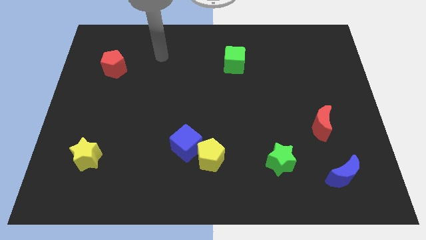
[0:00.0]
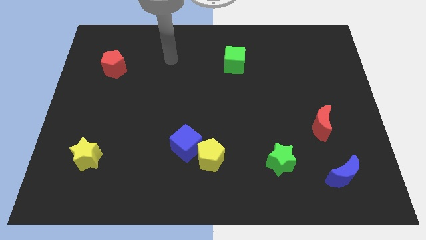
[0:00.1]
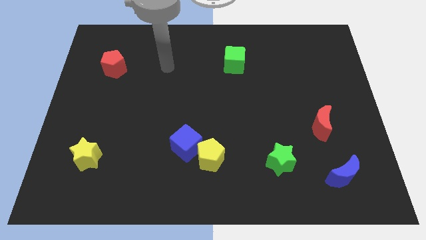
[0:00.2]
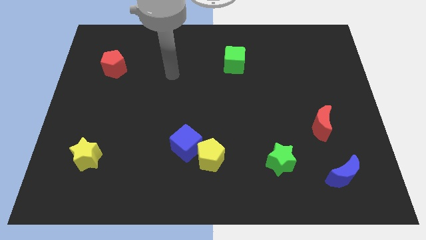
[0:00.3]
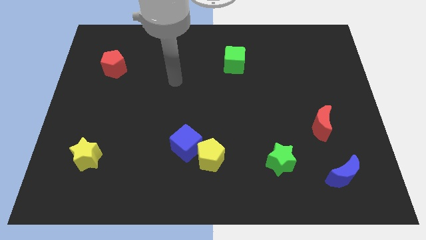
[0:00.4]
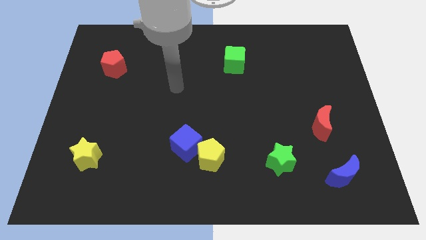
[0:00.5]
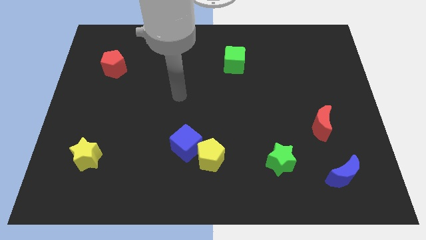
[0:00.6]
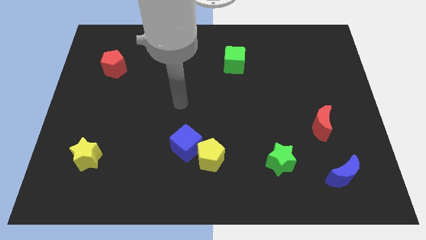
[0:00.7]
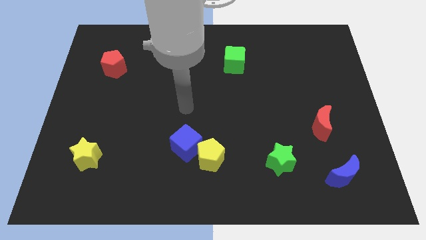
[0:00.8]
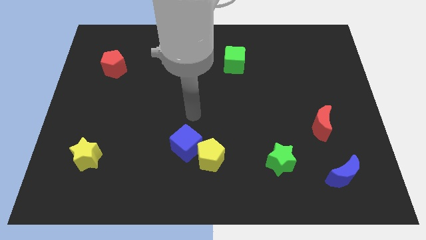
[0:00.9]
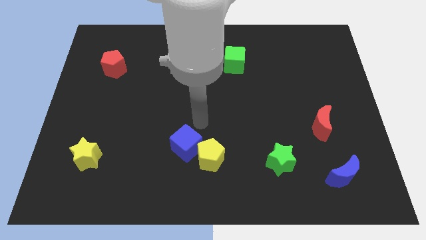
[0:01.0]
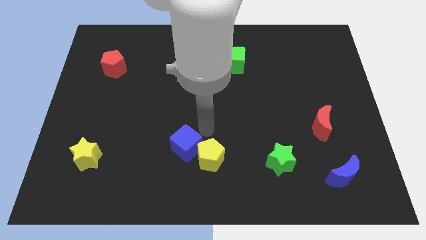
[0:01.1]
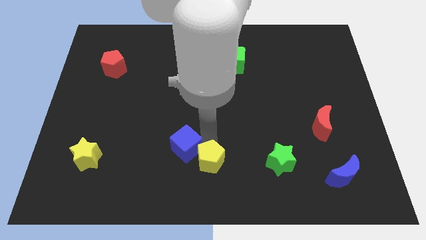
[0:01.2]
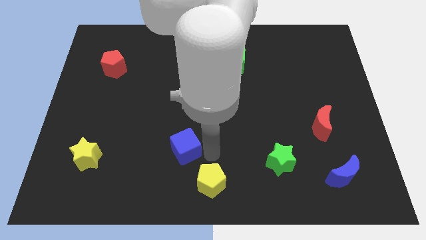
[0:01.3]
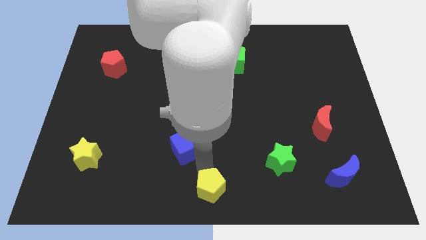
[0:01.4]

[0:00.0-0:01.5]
separate the blue cube from the yellow pentagon

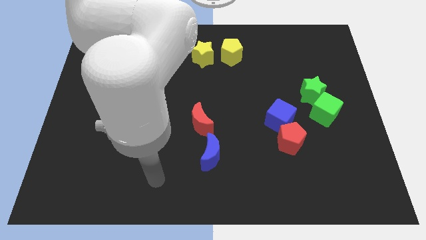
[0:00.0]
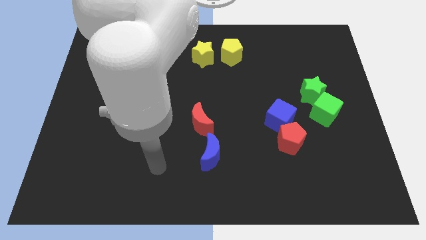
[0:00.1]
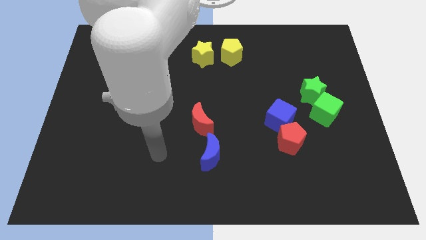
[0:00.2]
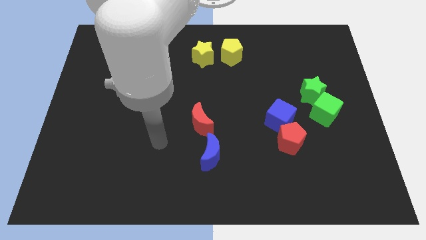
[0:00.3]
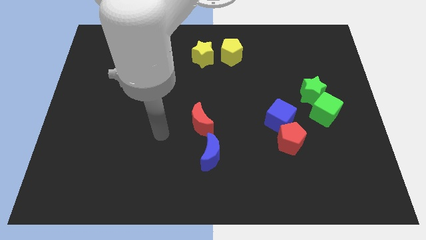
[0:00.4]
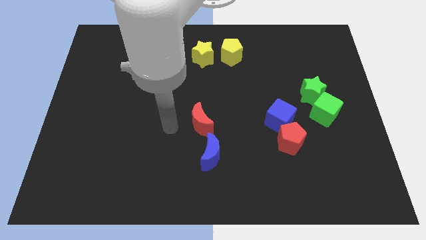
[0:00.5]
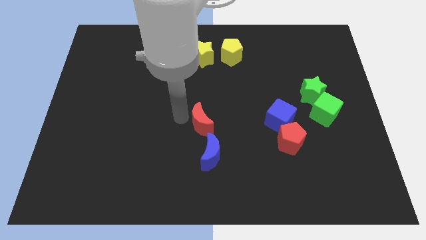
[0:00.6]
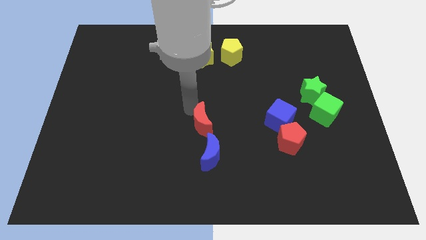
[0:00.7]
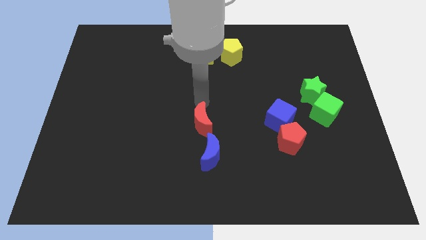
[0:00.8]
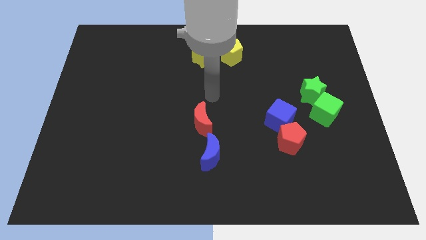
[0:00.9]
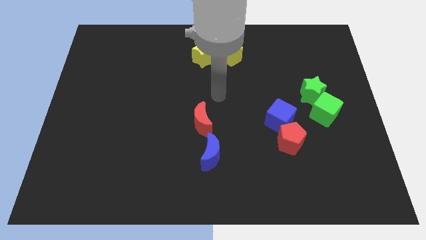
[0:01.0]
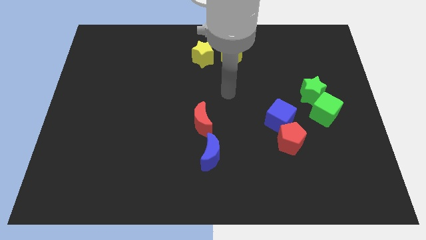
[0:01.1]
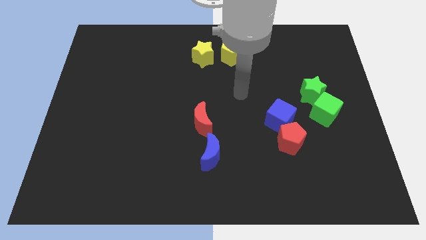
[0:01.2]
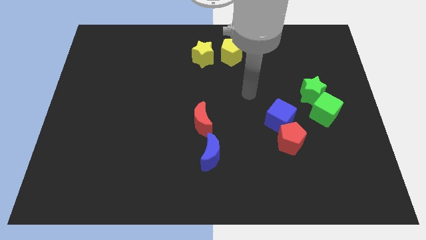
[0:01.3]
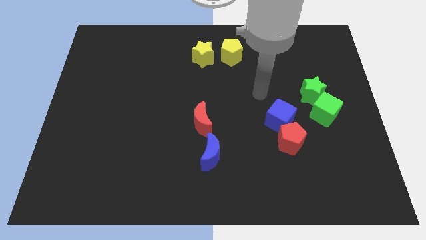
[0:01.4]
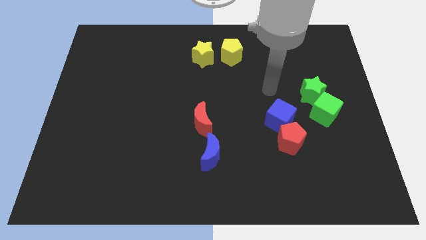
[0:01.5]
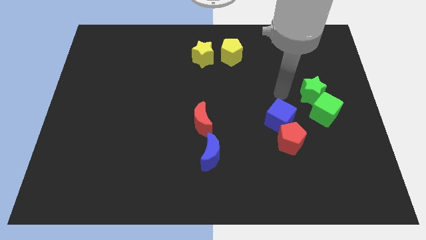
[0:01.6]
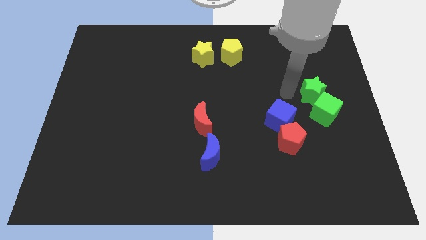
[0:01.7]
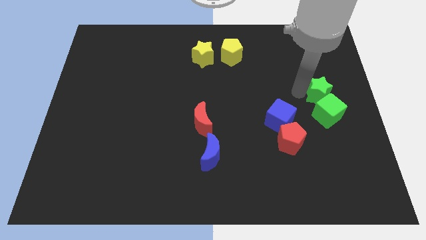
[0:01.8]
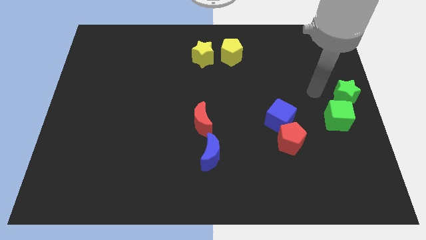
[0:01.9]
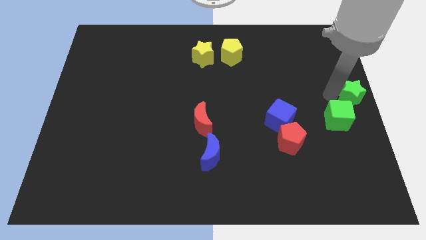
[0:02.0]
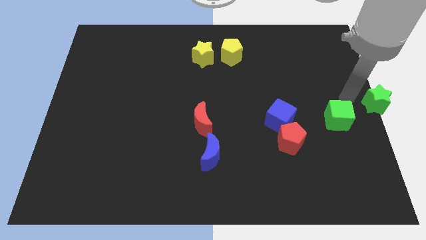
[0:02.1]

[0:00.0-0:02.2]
separate the green cube from the green star

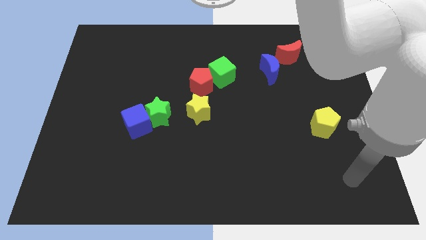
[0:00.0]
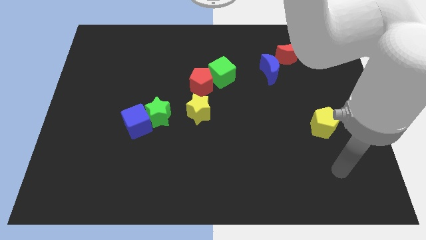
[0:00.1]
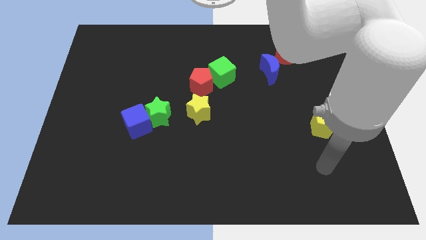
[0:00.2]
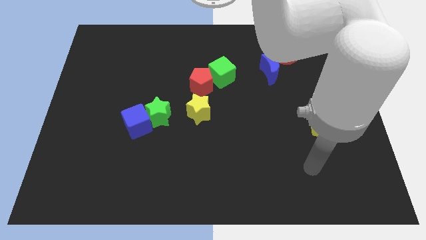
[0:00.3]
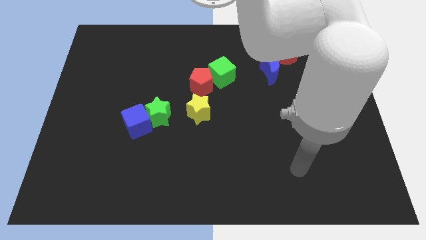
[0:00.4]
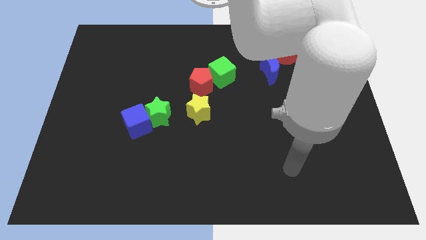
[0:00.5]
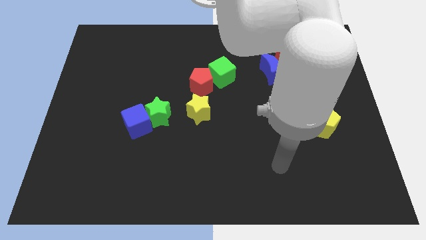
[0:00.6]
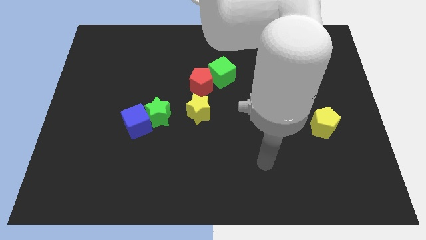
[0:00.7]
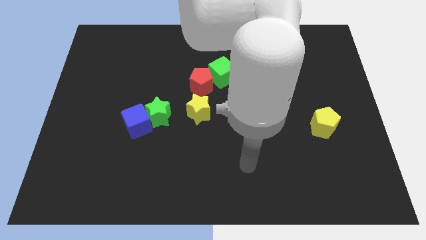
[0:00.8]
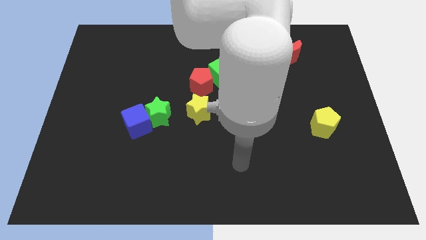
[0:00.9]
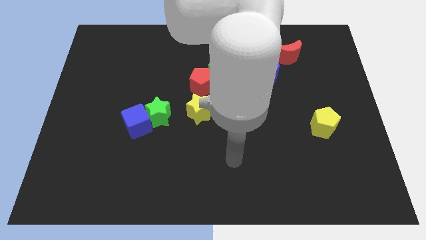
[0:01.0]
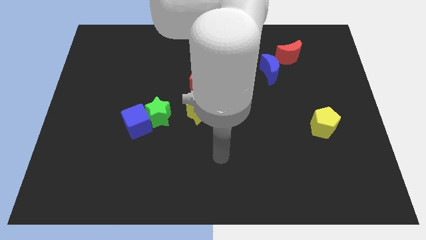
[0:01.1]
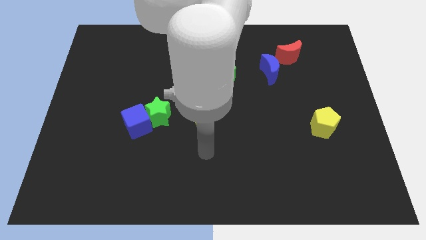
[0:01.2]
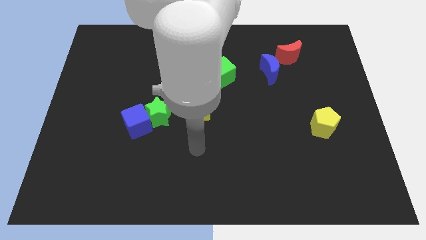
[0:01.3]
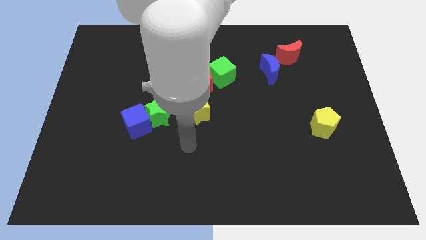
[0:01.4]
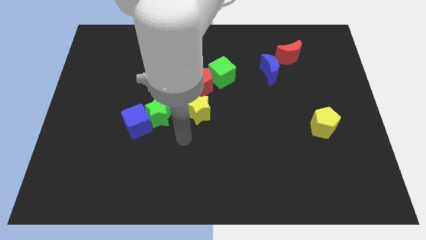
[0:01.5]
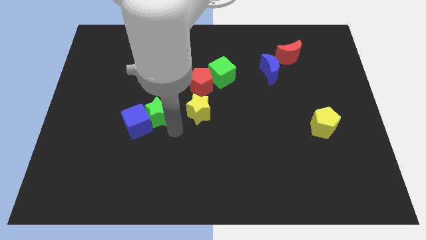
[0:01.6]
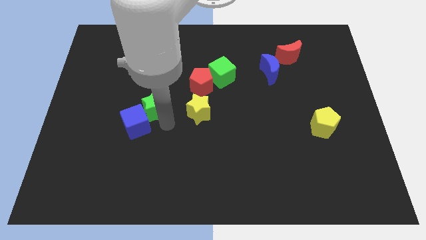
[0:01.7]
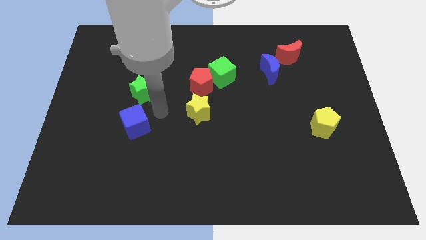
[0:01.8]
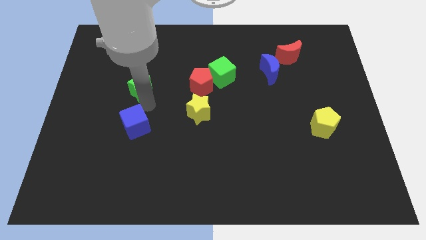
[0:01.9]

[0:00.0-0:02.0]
separate the blue cube from the green star

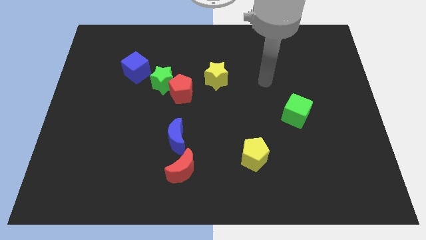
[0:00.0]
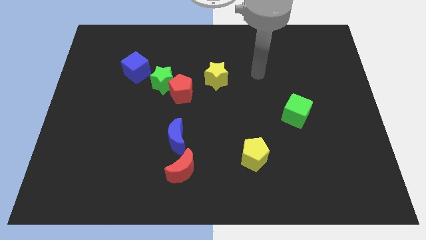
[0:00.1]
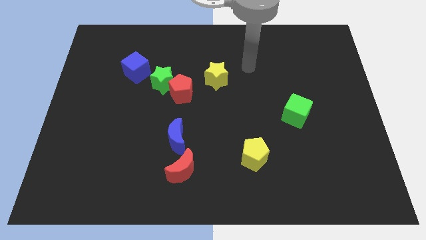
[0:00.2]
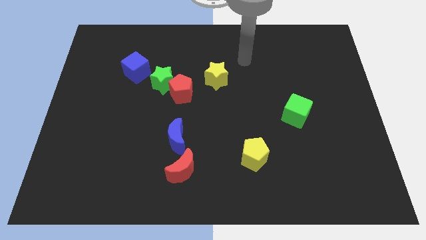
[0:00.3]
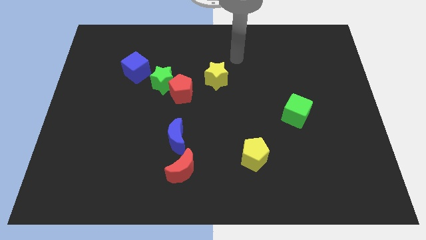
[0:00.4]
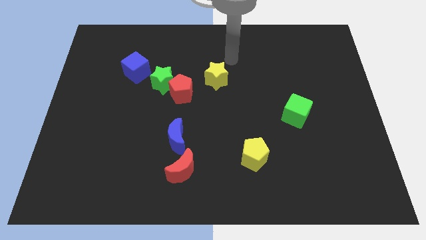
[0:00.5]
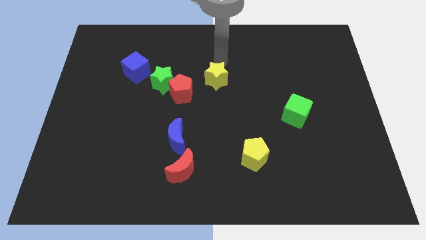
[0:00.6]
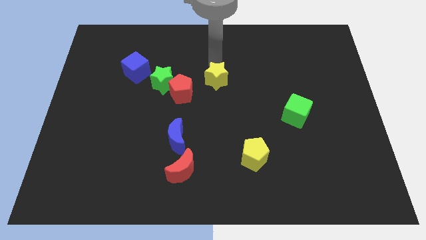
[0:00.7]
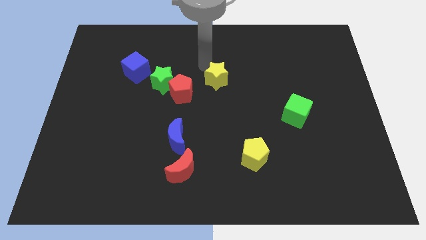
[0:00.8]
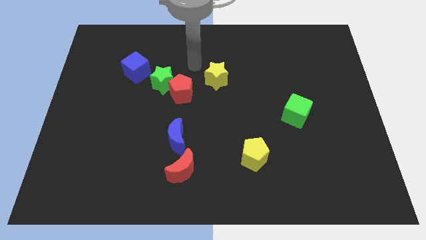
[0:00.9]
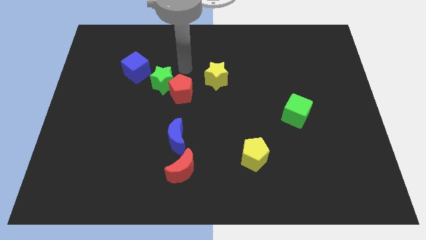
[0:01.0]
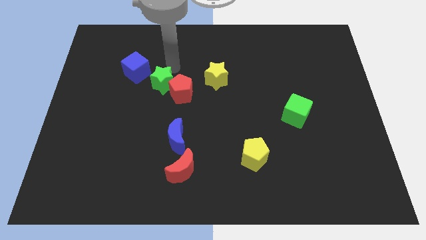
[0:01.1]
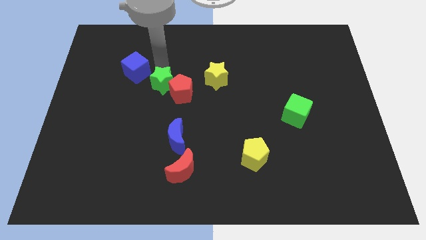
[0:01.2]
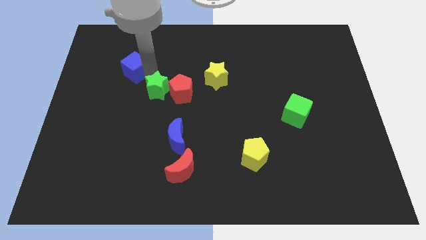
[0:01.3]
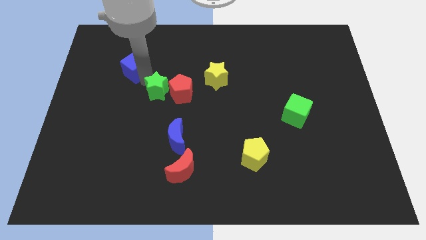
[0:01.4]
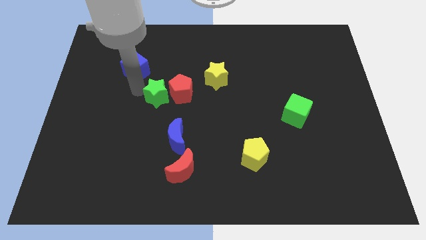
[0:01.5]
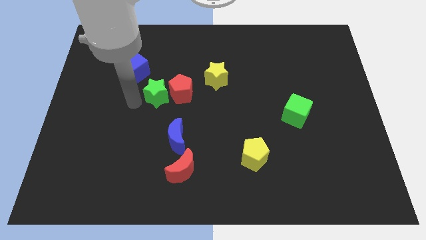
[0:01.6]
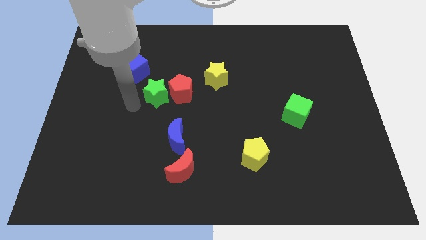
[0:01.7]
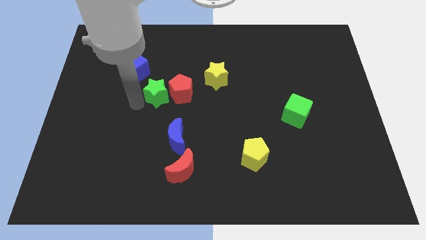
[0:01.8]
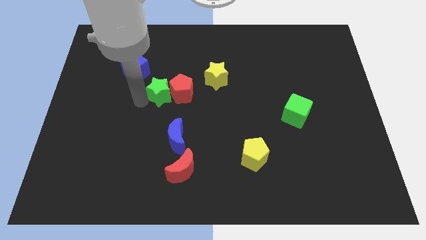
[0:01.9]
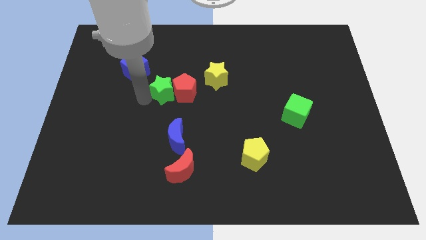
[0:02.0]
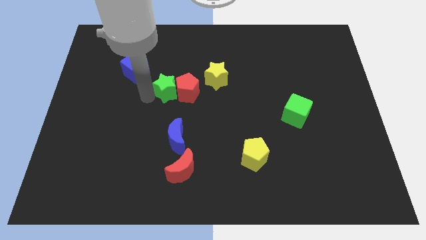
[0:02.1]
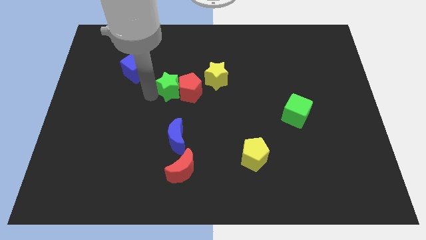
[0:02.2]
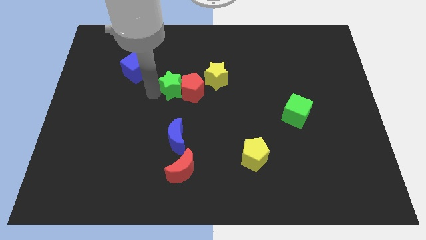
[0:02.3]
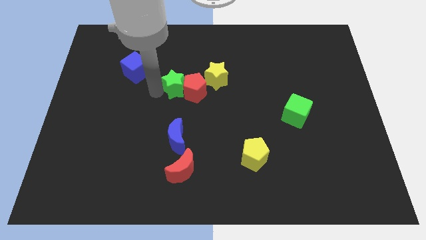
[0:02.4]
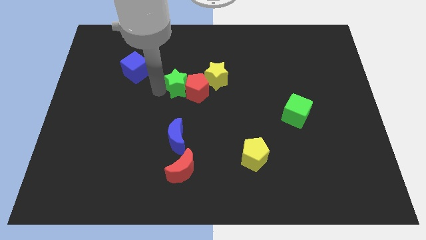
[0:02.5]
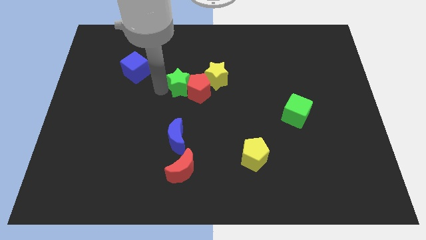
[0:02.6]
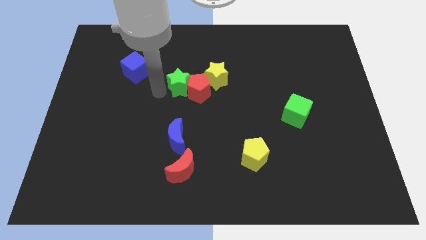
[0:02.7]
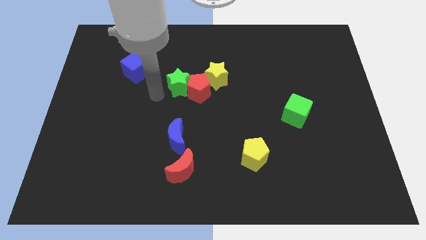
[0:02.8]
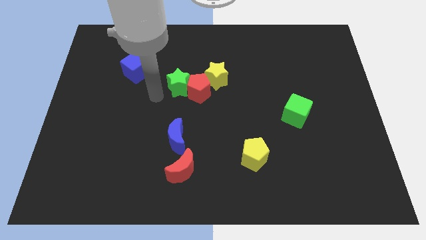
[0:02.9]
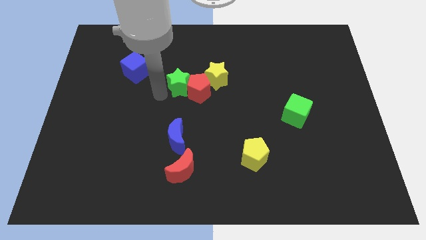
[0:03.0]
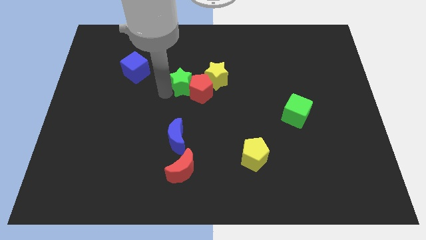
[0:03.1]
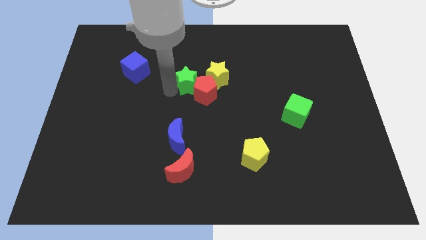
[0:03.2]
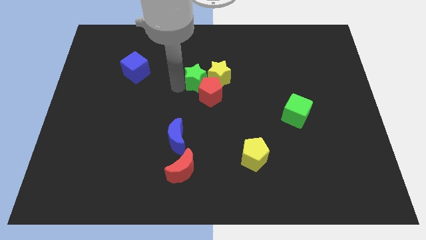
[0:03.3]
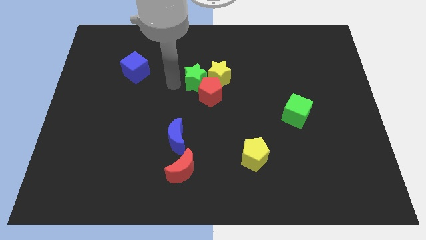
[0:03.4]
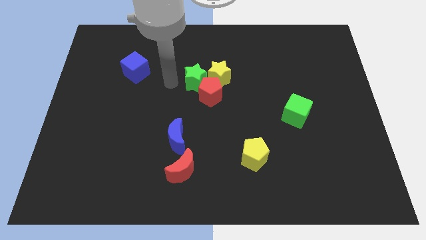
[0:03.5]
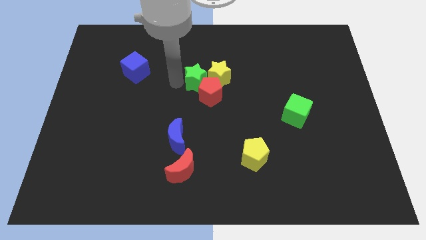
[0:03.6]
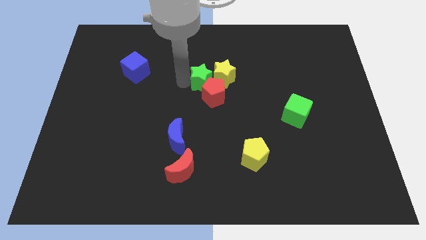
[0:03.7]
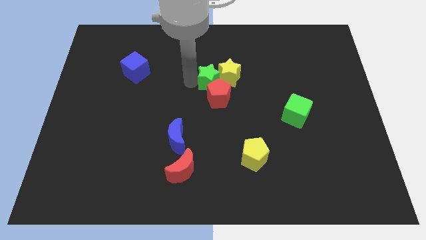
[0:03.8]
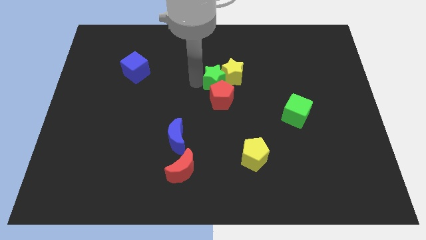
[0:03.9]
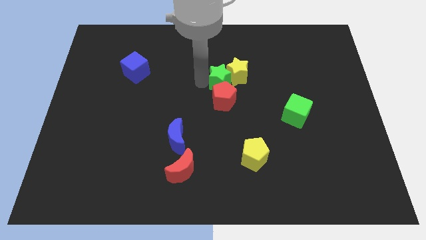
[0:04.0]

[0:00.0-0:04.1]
move the green star away from the red pentagon and blue cube
